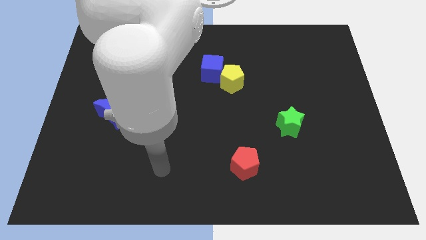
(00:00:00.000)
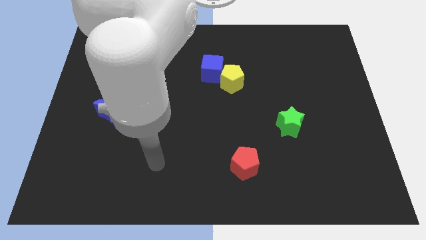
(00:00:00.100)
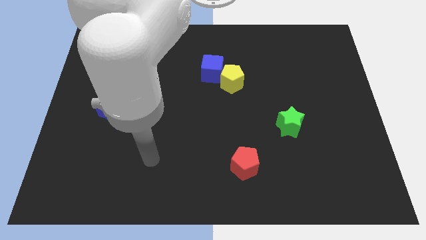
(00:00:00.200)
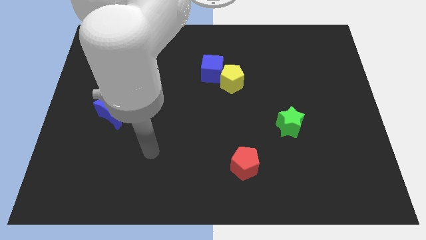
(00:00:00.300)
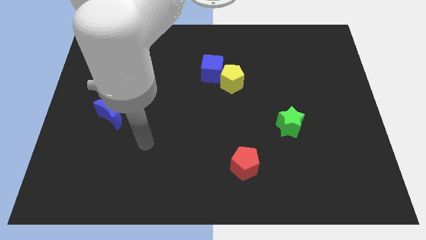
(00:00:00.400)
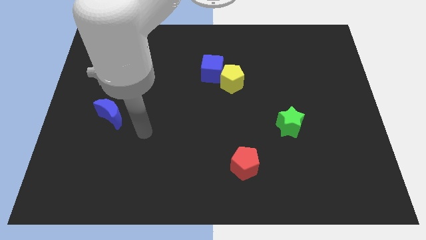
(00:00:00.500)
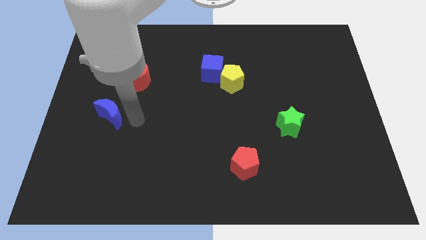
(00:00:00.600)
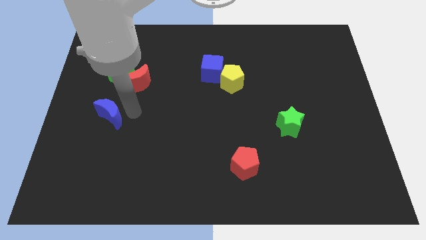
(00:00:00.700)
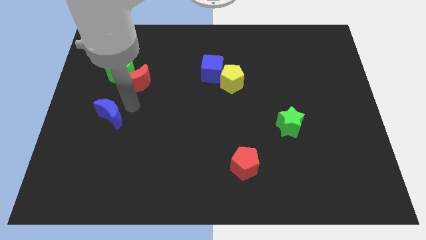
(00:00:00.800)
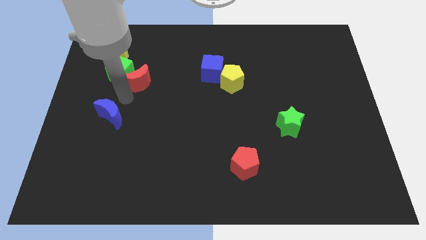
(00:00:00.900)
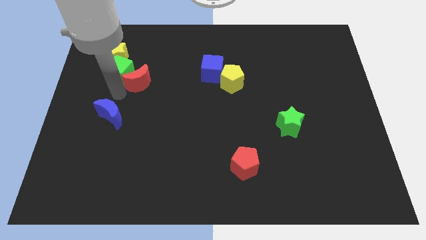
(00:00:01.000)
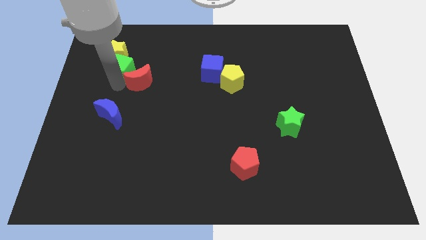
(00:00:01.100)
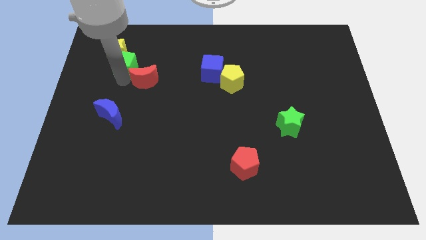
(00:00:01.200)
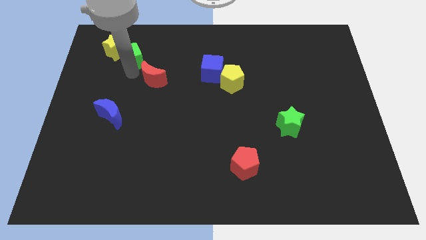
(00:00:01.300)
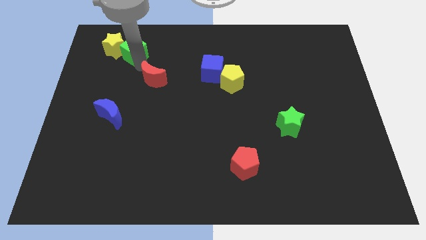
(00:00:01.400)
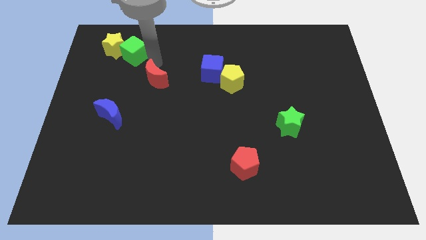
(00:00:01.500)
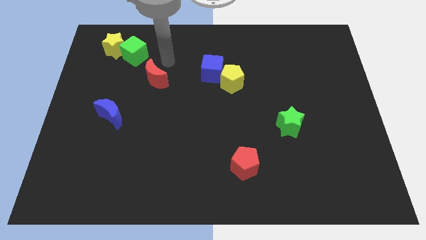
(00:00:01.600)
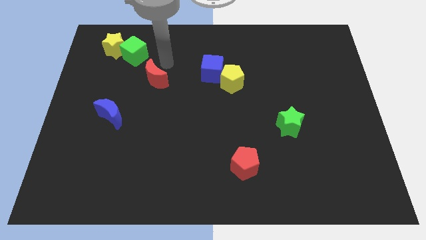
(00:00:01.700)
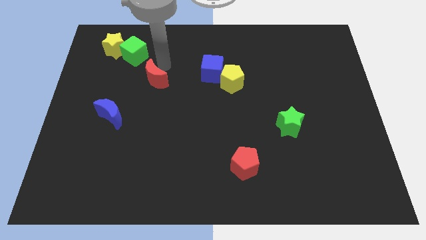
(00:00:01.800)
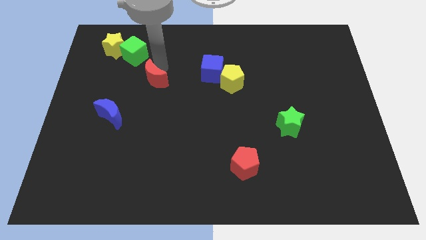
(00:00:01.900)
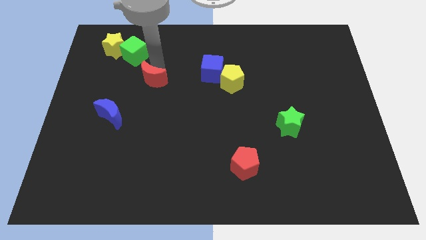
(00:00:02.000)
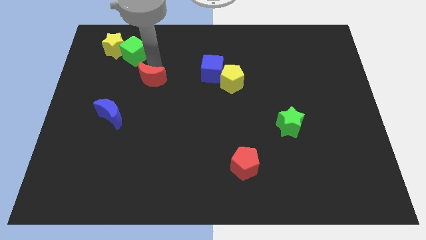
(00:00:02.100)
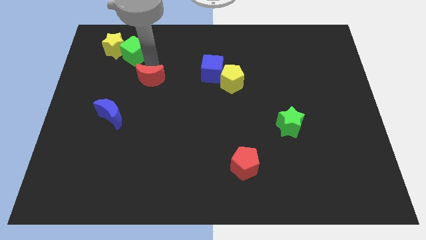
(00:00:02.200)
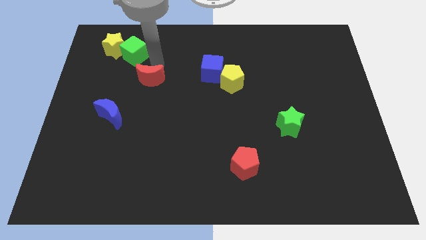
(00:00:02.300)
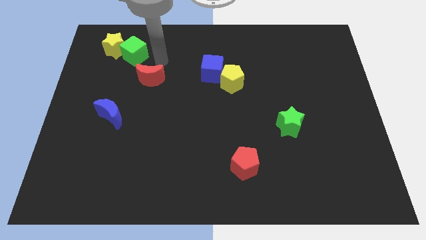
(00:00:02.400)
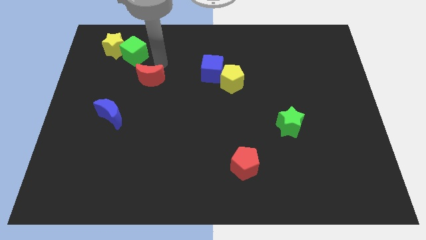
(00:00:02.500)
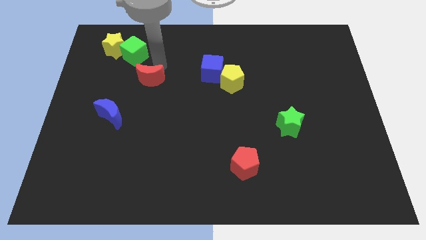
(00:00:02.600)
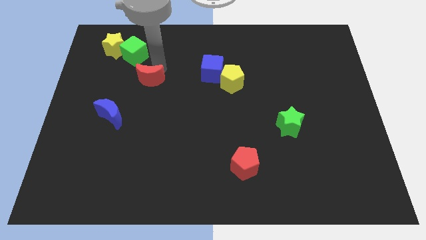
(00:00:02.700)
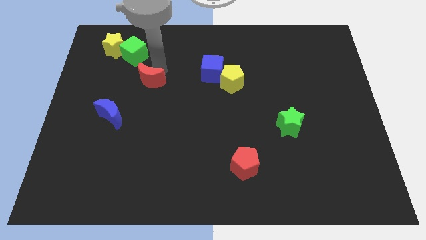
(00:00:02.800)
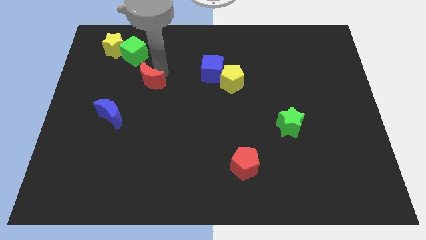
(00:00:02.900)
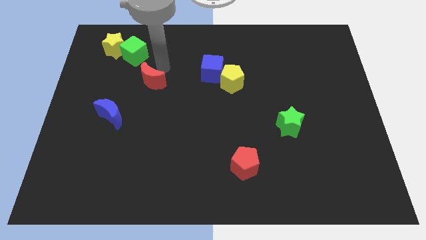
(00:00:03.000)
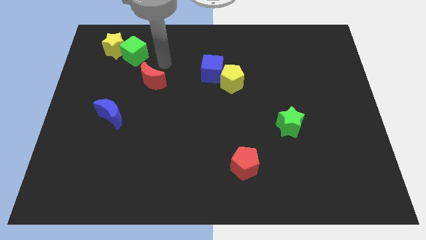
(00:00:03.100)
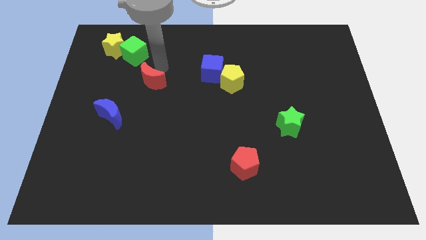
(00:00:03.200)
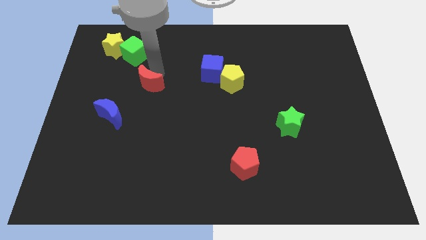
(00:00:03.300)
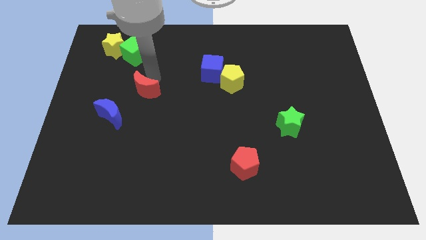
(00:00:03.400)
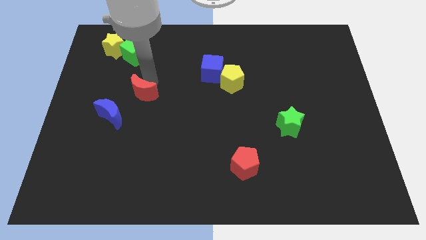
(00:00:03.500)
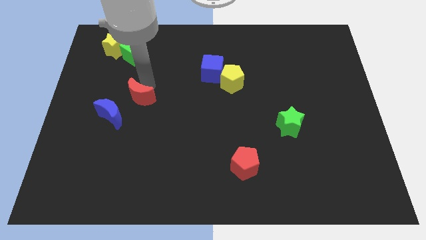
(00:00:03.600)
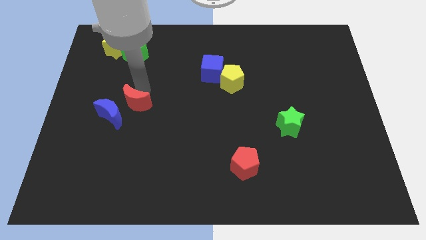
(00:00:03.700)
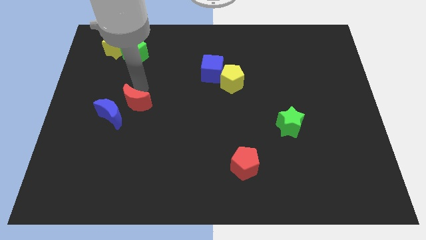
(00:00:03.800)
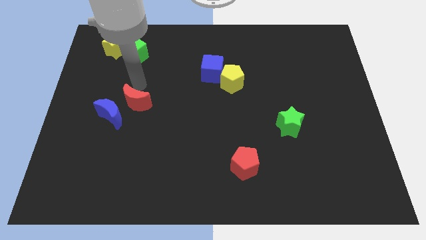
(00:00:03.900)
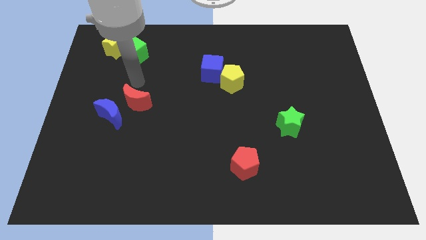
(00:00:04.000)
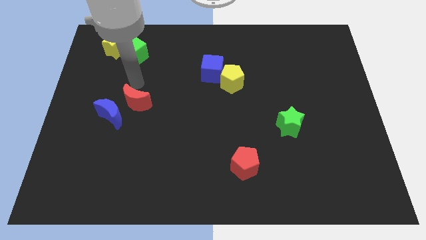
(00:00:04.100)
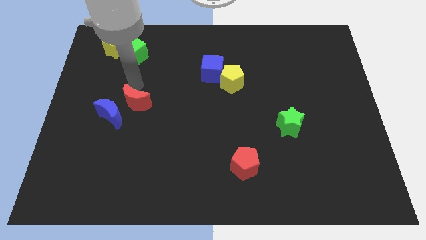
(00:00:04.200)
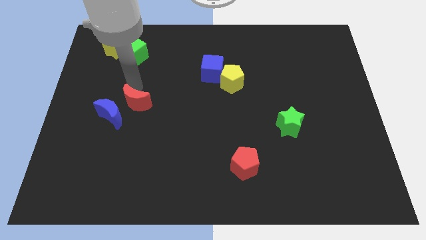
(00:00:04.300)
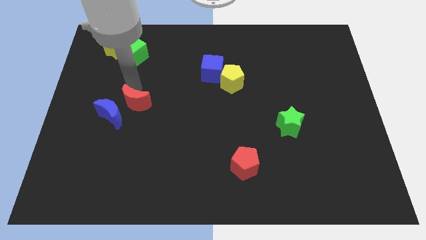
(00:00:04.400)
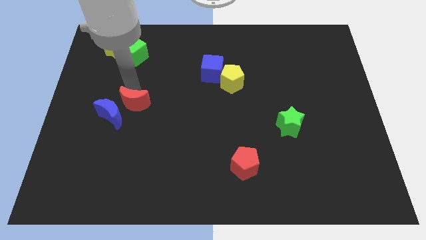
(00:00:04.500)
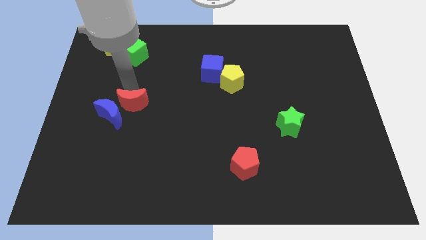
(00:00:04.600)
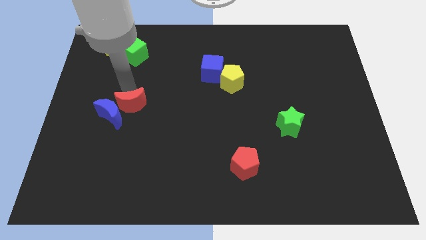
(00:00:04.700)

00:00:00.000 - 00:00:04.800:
move the red moon a little bit downwards

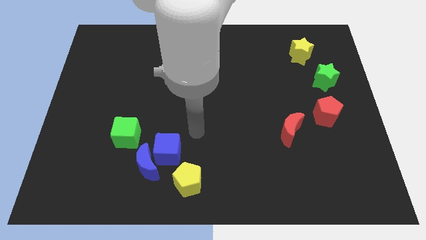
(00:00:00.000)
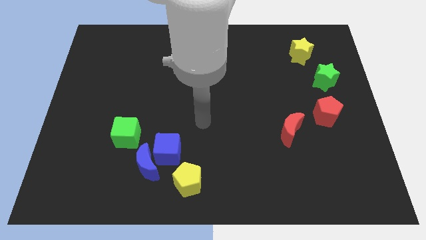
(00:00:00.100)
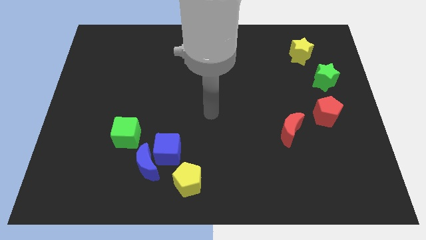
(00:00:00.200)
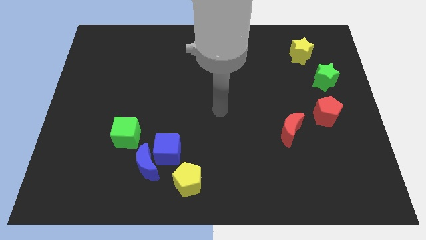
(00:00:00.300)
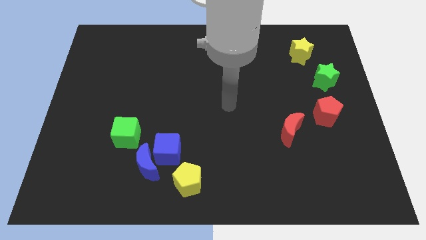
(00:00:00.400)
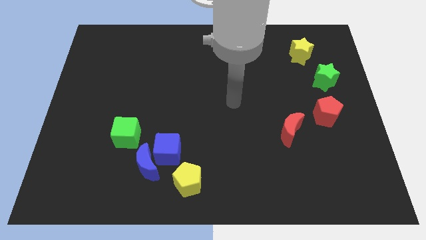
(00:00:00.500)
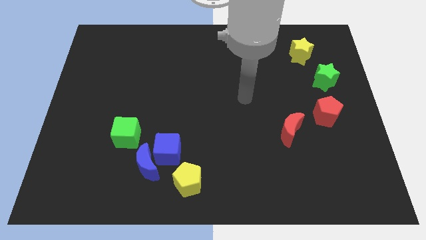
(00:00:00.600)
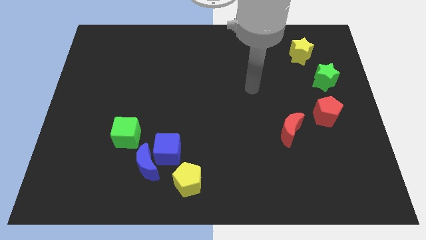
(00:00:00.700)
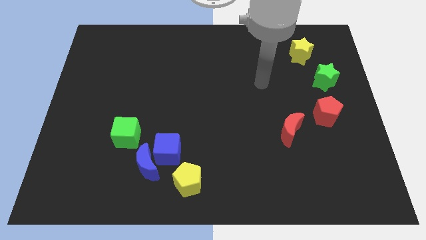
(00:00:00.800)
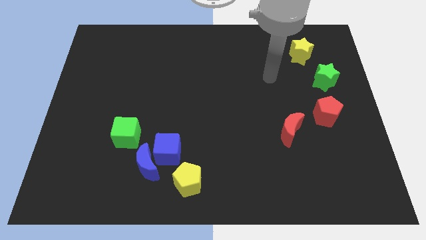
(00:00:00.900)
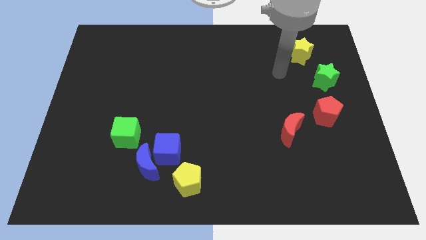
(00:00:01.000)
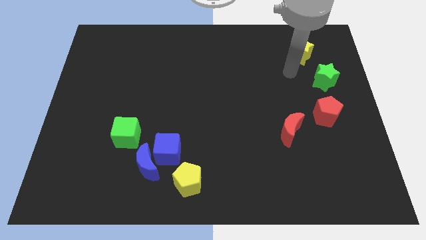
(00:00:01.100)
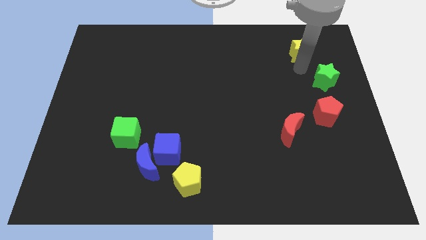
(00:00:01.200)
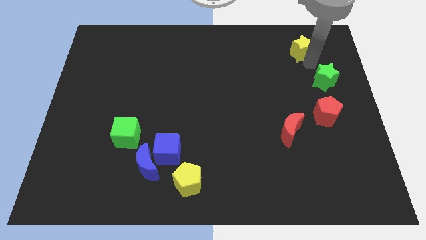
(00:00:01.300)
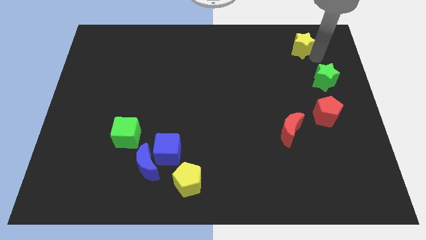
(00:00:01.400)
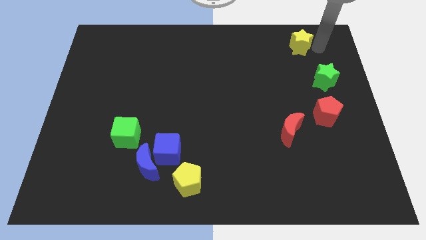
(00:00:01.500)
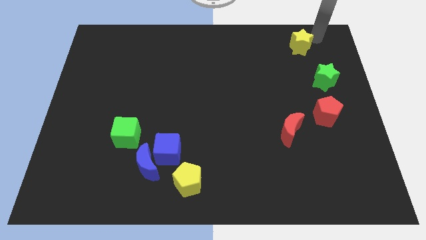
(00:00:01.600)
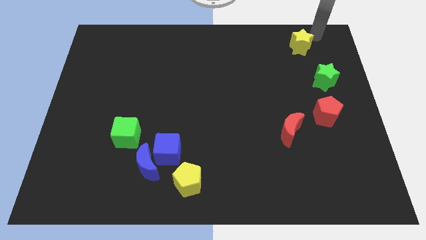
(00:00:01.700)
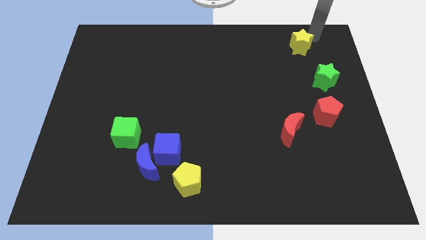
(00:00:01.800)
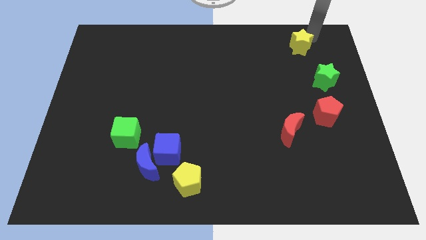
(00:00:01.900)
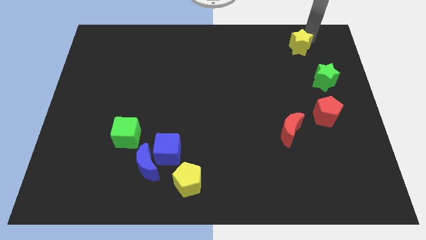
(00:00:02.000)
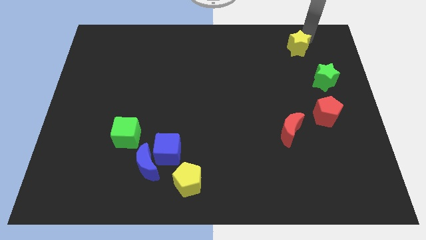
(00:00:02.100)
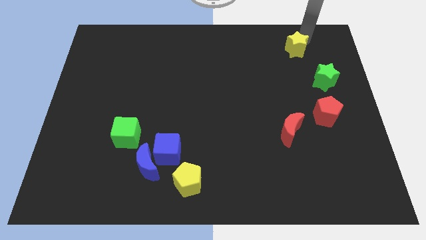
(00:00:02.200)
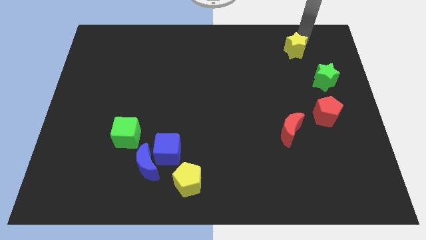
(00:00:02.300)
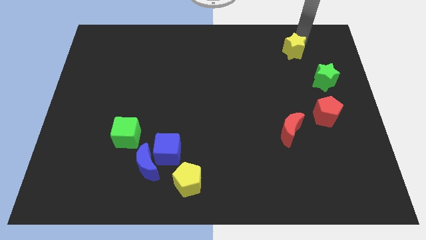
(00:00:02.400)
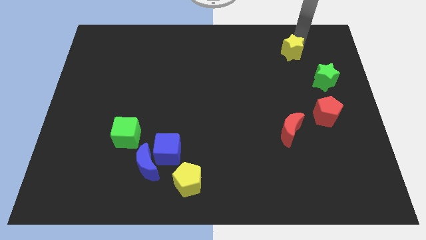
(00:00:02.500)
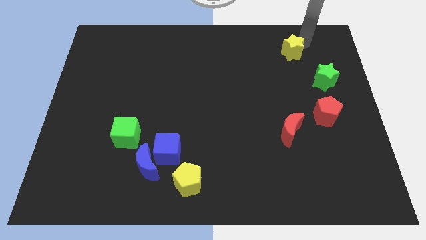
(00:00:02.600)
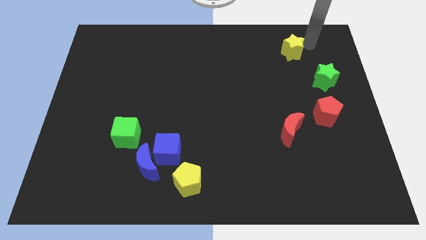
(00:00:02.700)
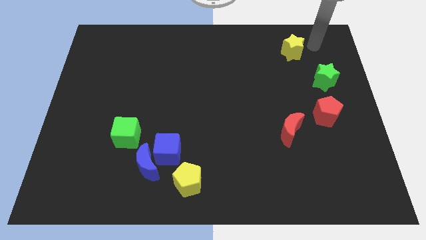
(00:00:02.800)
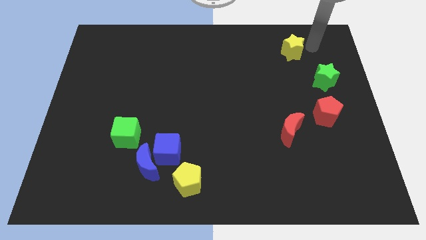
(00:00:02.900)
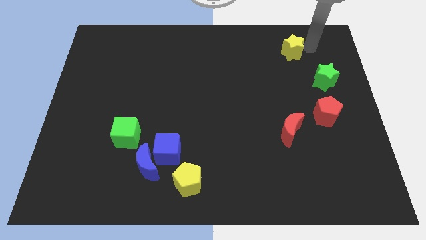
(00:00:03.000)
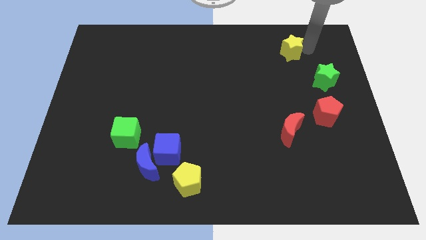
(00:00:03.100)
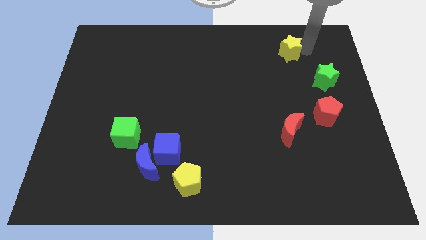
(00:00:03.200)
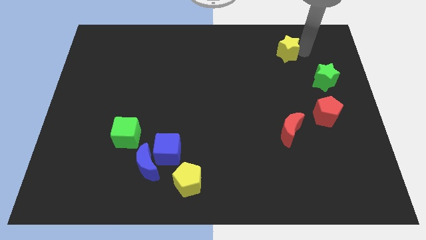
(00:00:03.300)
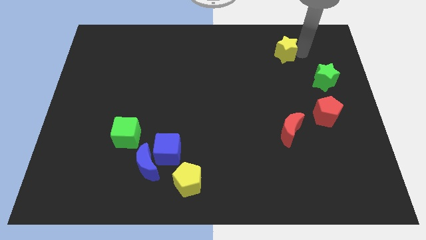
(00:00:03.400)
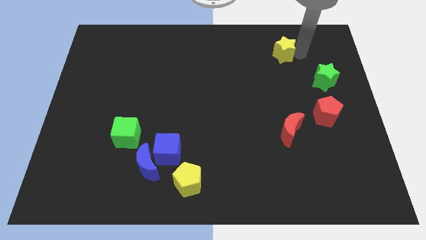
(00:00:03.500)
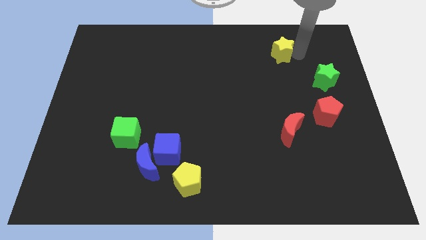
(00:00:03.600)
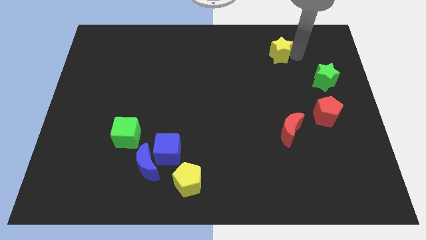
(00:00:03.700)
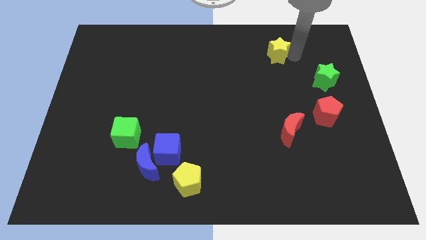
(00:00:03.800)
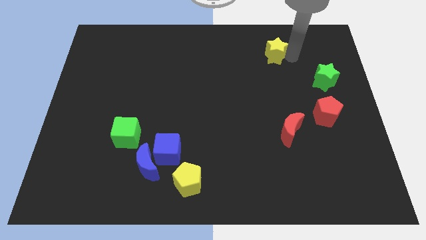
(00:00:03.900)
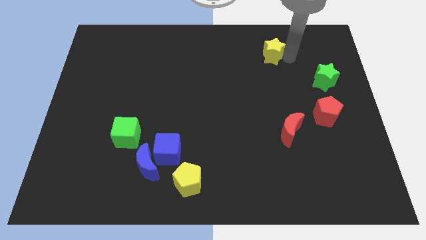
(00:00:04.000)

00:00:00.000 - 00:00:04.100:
slide the yellow star a little to the left
